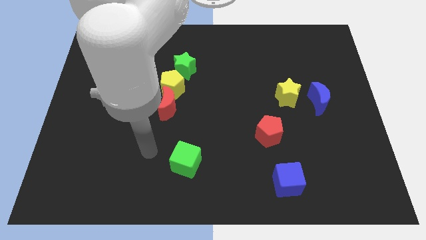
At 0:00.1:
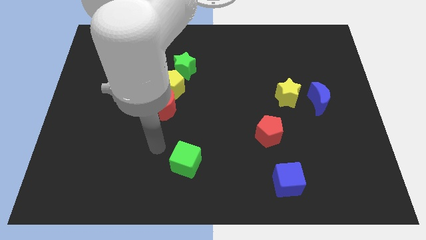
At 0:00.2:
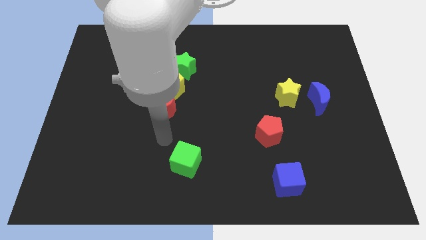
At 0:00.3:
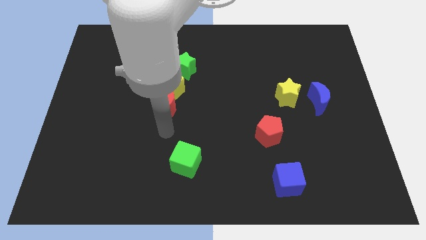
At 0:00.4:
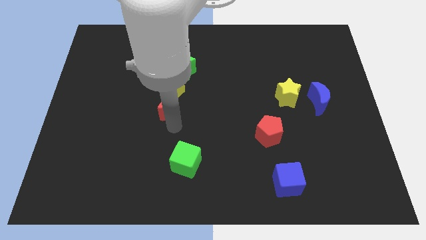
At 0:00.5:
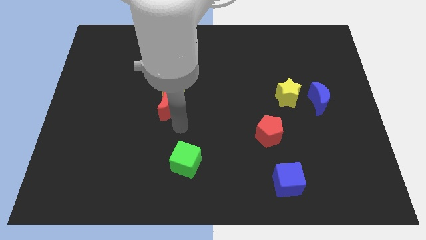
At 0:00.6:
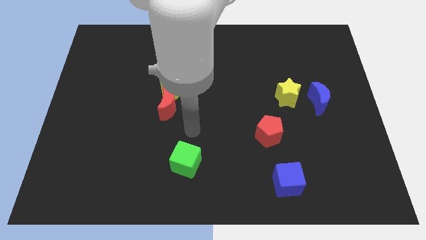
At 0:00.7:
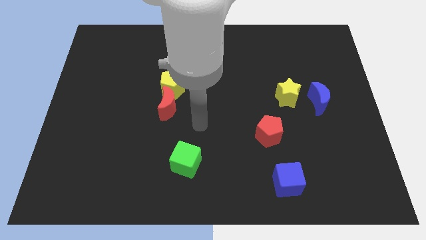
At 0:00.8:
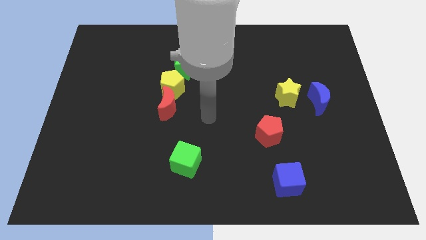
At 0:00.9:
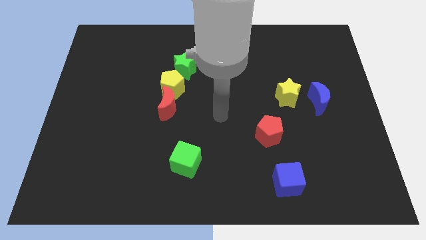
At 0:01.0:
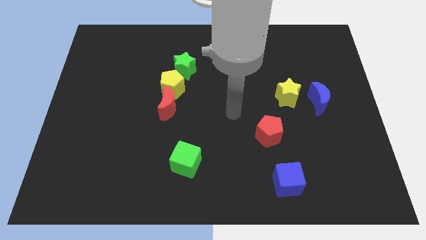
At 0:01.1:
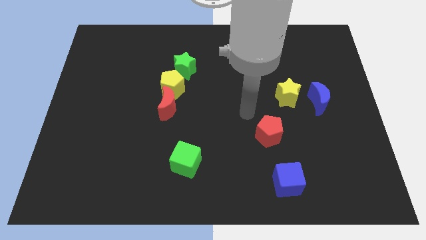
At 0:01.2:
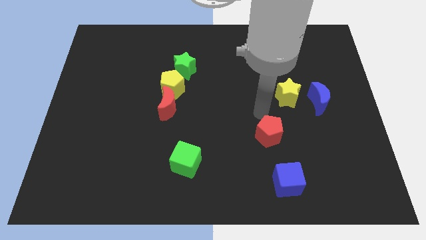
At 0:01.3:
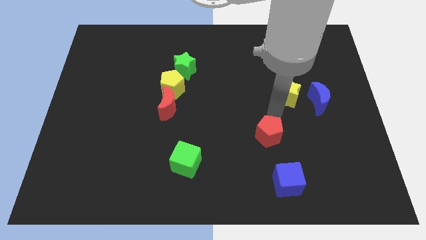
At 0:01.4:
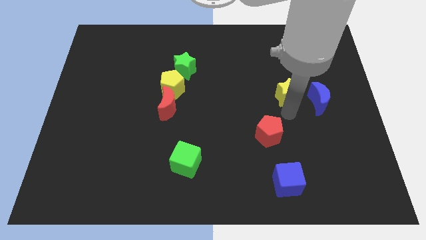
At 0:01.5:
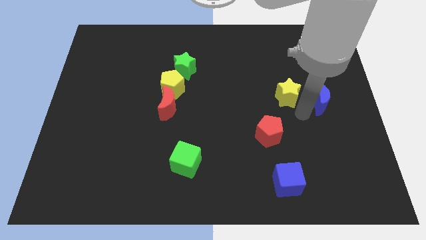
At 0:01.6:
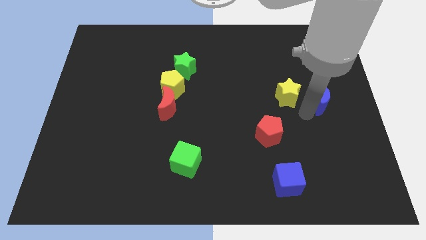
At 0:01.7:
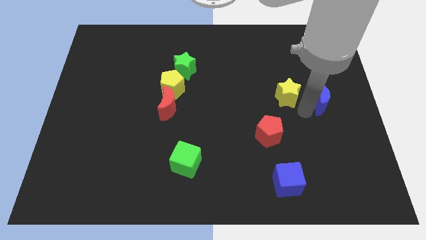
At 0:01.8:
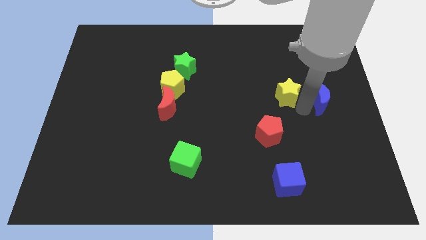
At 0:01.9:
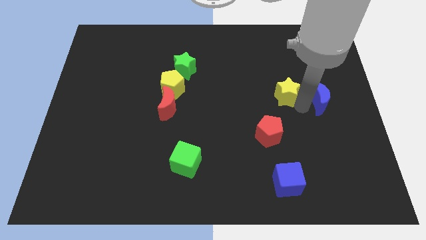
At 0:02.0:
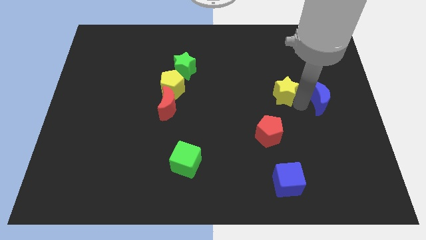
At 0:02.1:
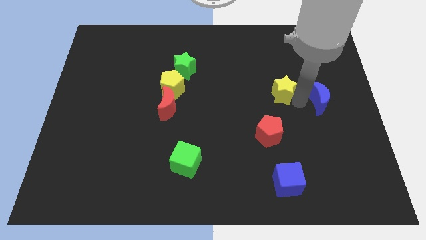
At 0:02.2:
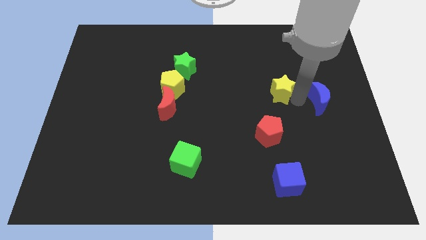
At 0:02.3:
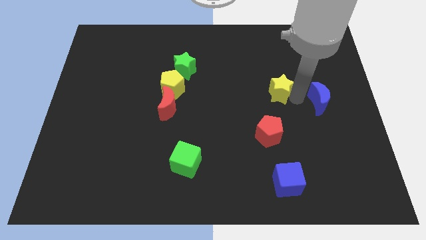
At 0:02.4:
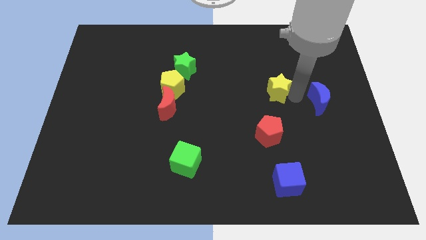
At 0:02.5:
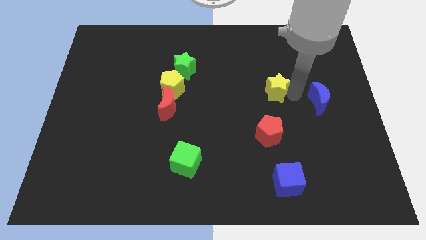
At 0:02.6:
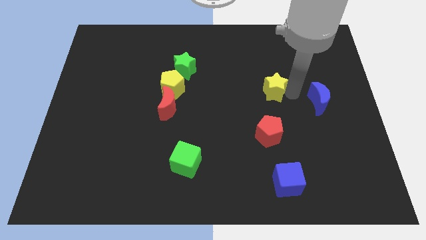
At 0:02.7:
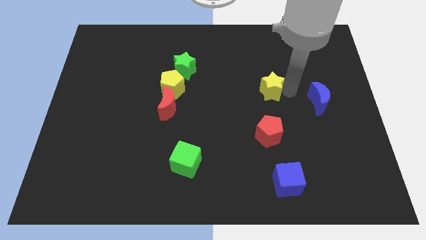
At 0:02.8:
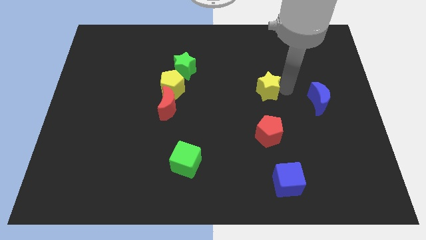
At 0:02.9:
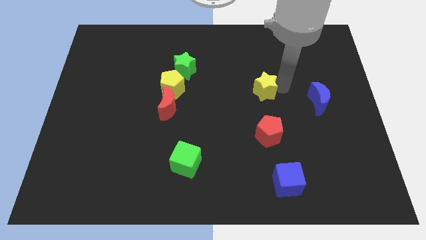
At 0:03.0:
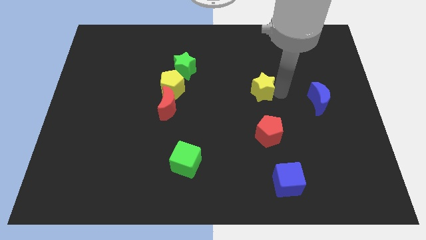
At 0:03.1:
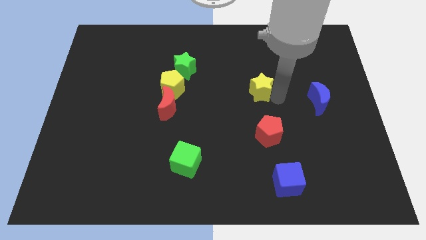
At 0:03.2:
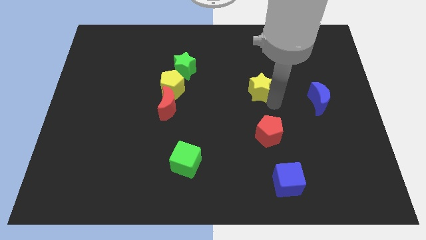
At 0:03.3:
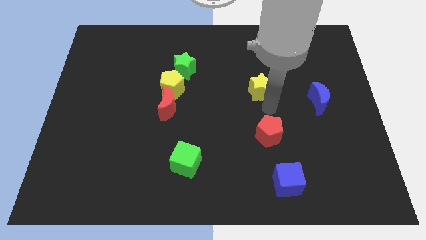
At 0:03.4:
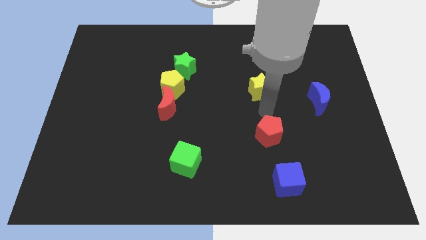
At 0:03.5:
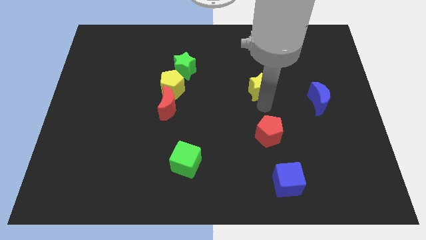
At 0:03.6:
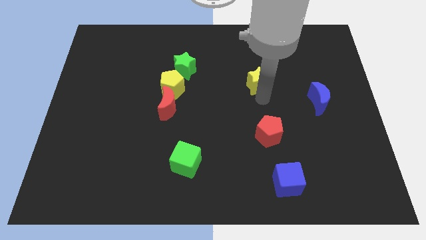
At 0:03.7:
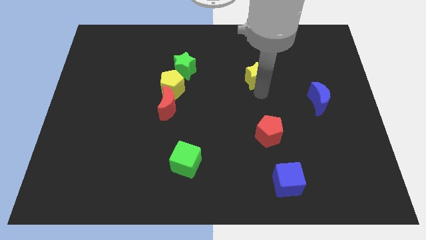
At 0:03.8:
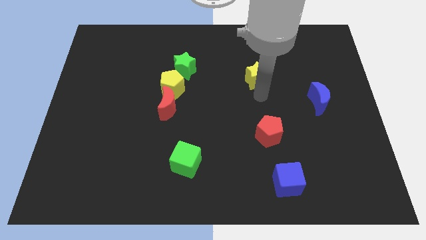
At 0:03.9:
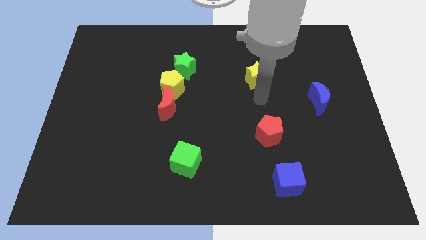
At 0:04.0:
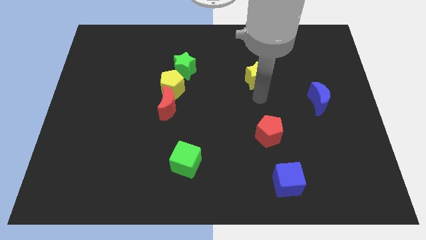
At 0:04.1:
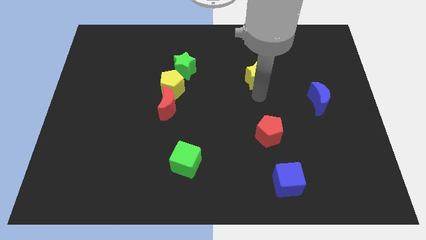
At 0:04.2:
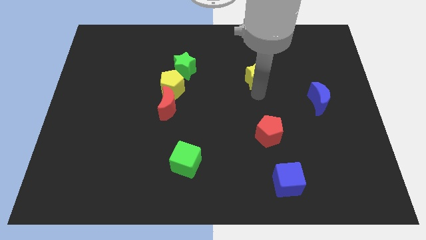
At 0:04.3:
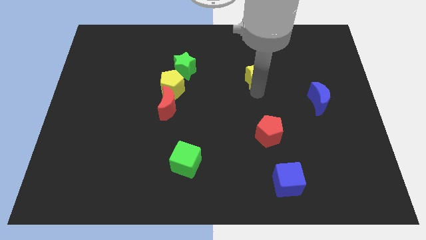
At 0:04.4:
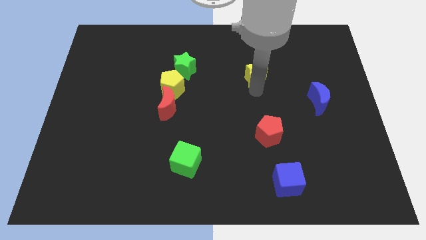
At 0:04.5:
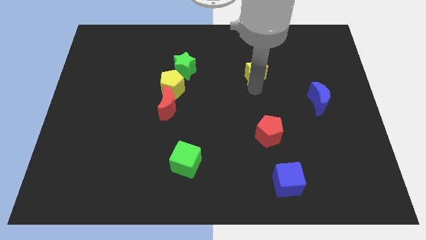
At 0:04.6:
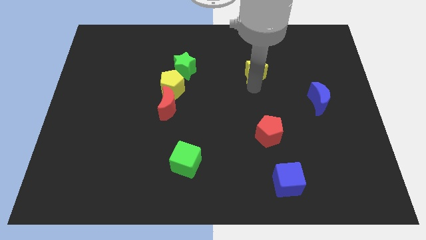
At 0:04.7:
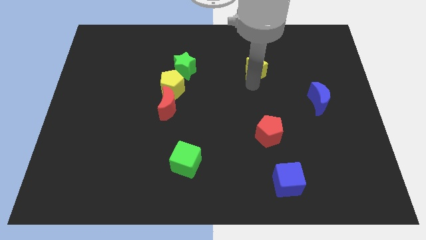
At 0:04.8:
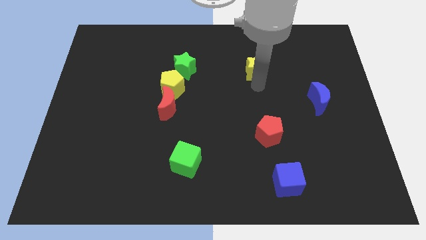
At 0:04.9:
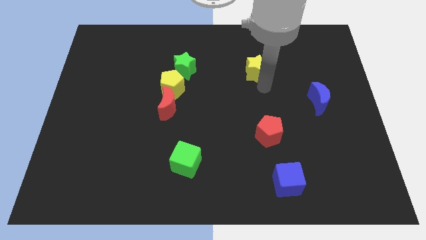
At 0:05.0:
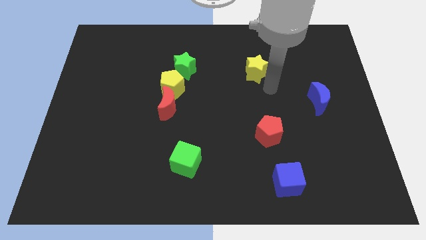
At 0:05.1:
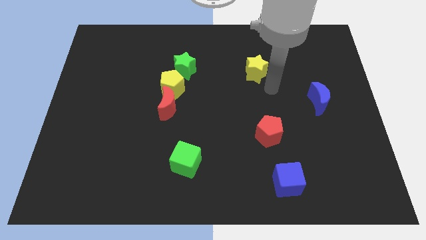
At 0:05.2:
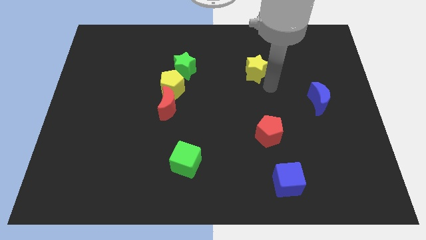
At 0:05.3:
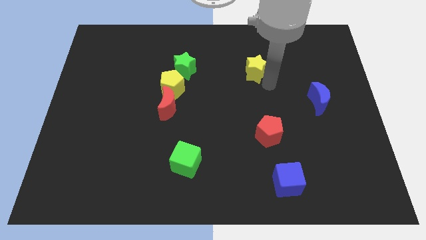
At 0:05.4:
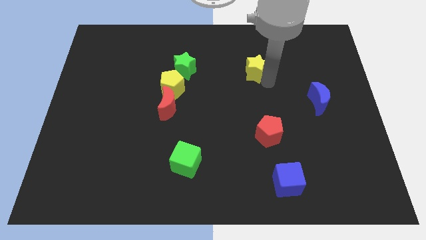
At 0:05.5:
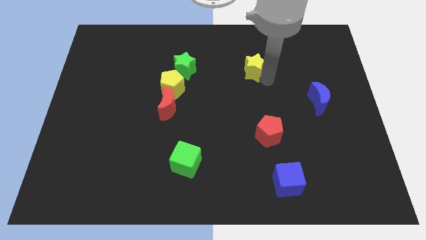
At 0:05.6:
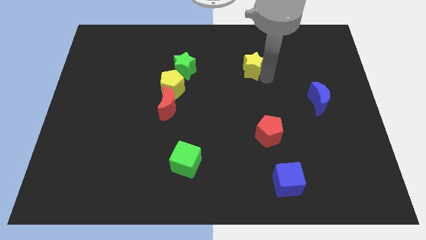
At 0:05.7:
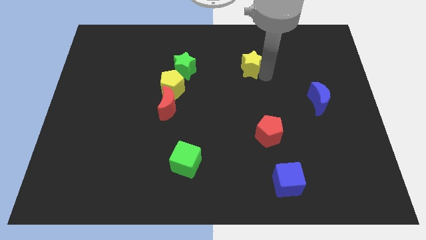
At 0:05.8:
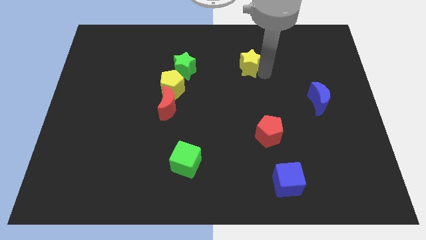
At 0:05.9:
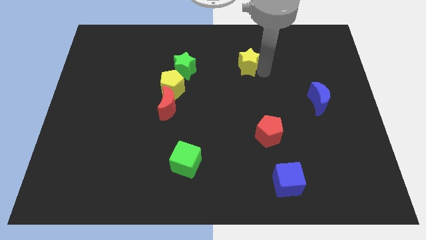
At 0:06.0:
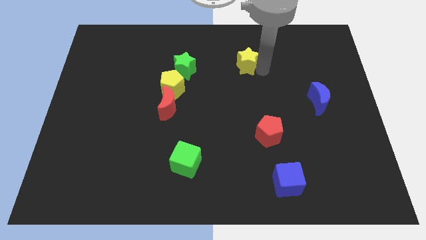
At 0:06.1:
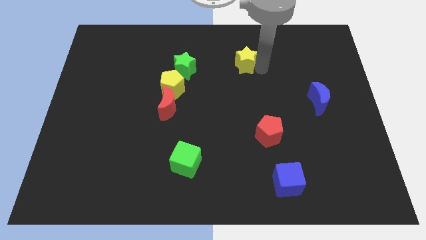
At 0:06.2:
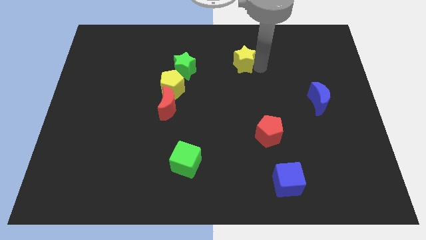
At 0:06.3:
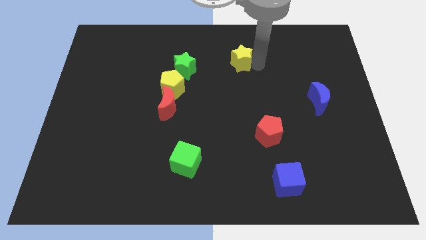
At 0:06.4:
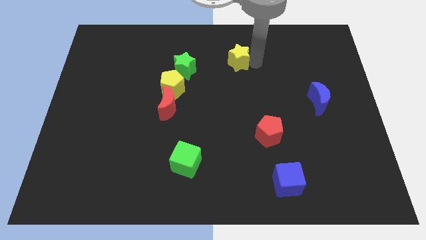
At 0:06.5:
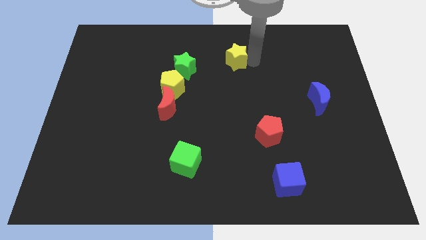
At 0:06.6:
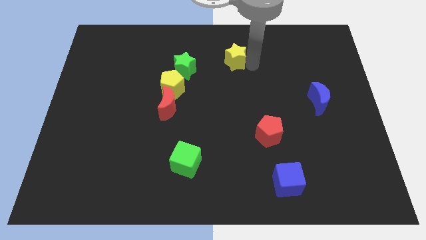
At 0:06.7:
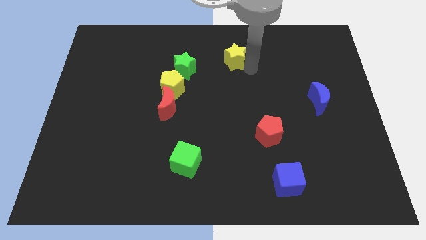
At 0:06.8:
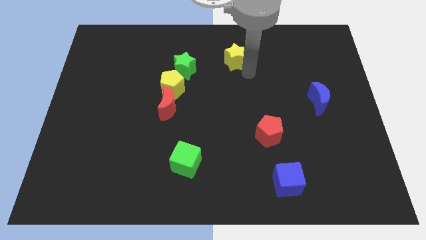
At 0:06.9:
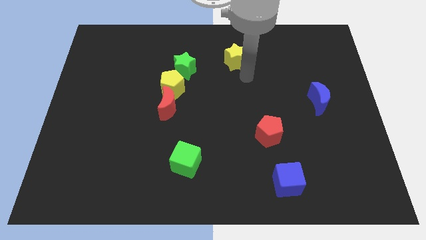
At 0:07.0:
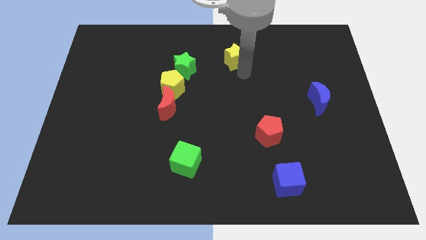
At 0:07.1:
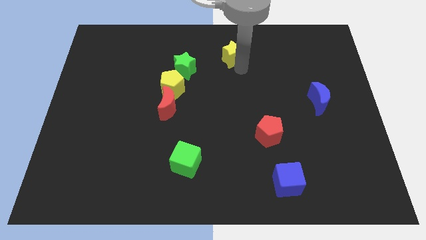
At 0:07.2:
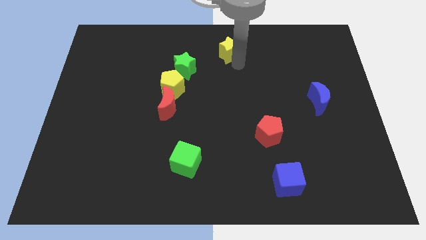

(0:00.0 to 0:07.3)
push the yellow star to the top side
